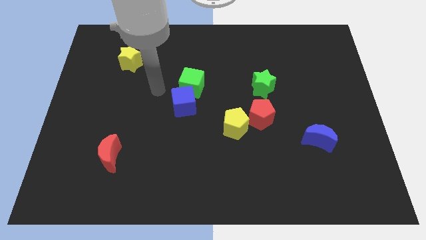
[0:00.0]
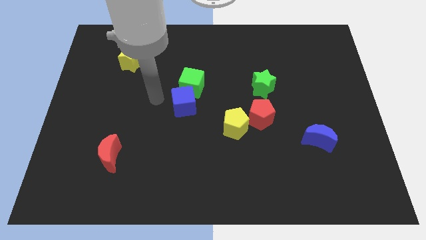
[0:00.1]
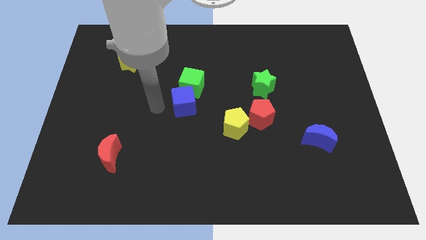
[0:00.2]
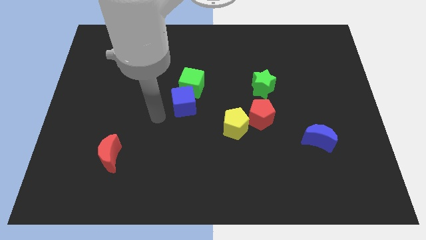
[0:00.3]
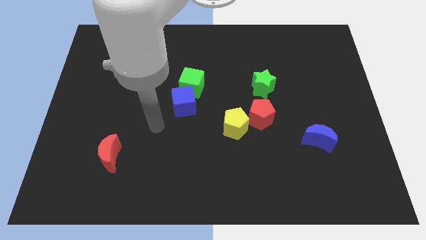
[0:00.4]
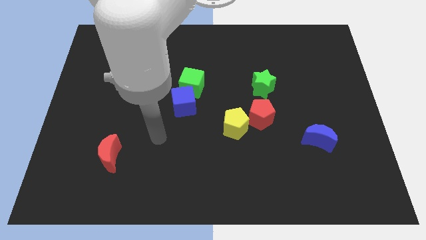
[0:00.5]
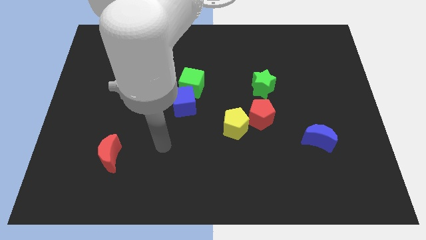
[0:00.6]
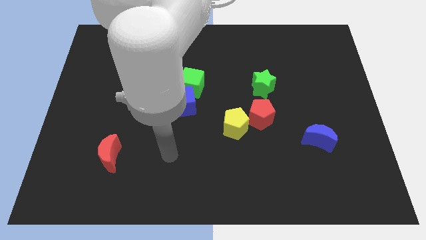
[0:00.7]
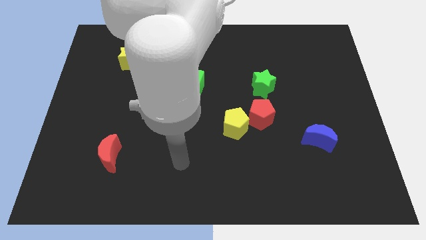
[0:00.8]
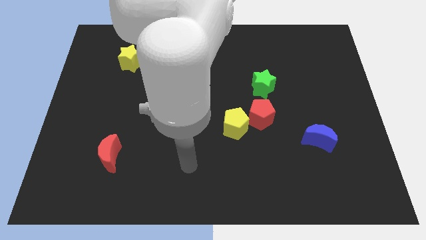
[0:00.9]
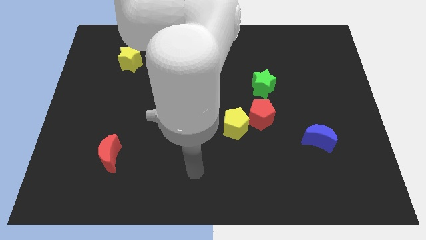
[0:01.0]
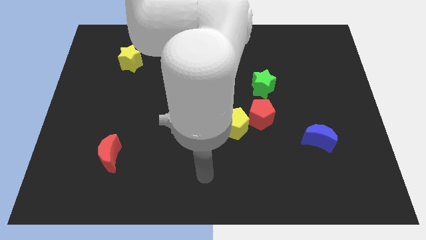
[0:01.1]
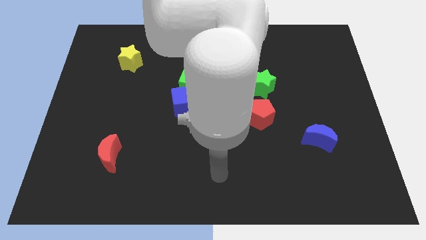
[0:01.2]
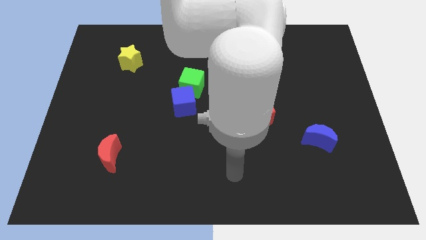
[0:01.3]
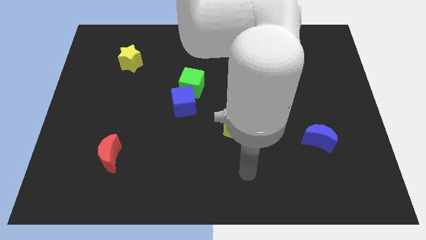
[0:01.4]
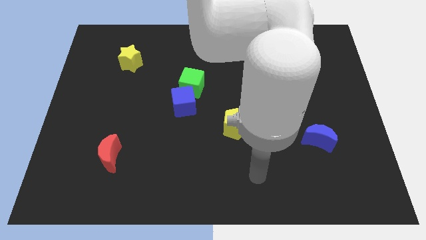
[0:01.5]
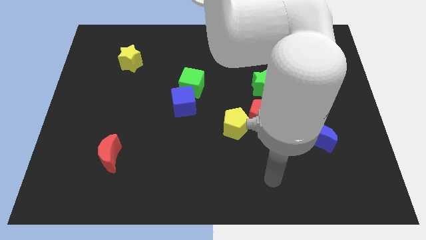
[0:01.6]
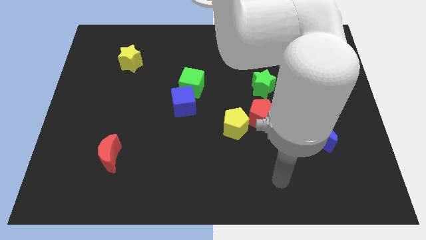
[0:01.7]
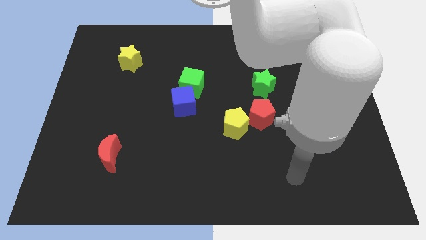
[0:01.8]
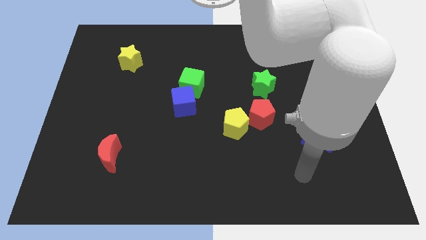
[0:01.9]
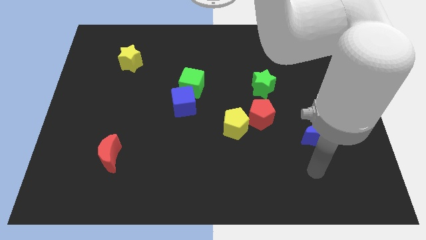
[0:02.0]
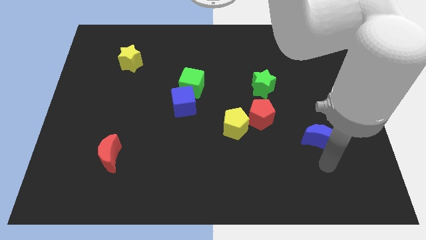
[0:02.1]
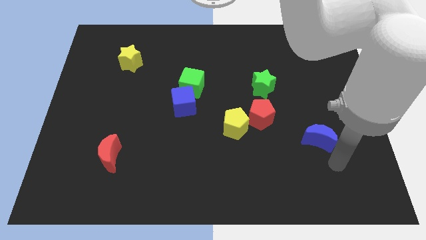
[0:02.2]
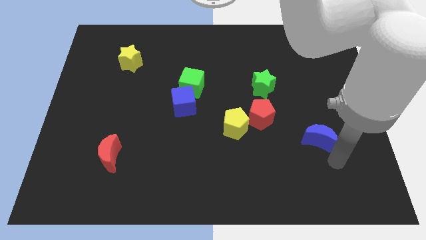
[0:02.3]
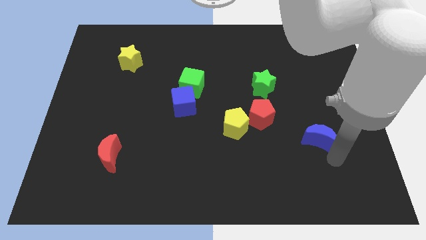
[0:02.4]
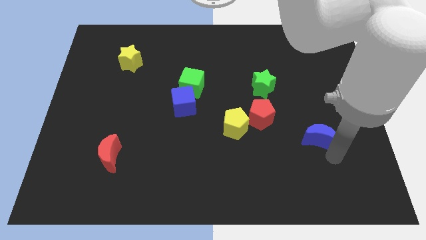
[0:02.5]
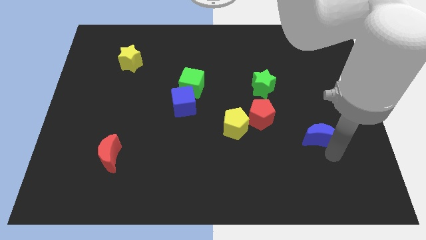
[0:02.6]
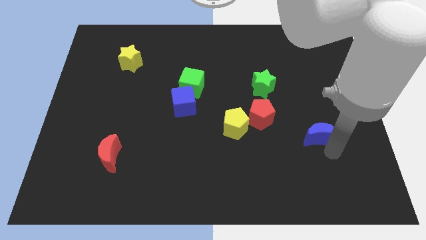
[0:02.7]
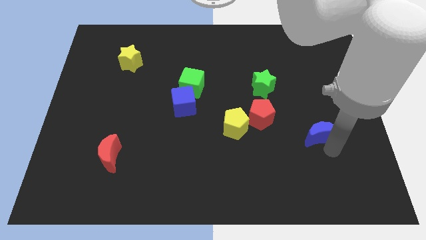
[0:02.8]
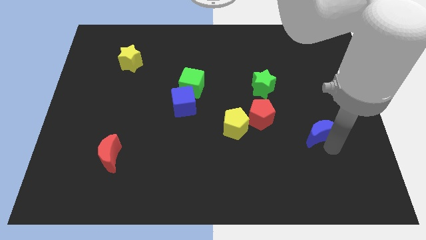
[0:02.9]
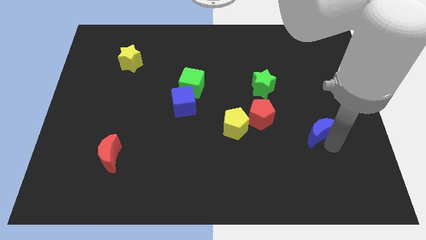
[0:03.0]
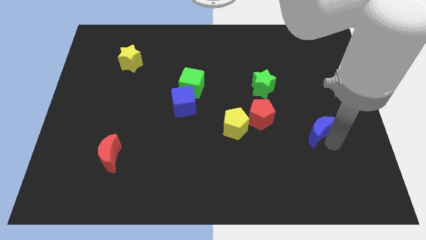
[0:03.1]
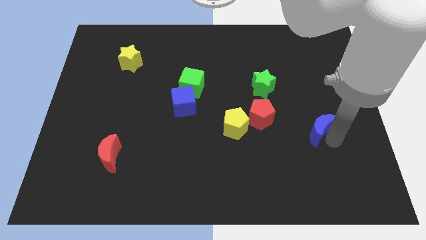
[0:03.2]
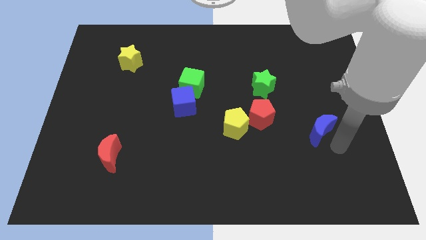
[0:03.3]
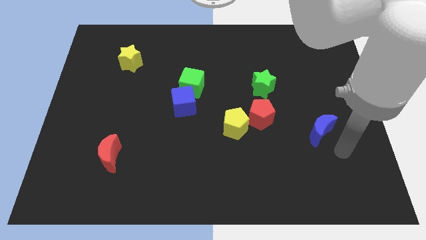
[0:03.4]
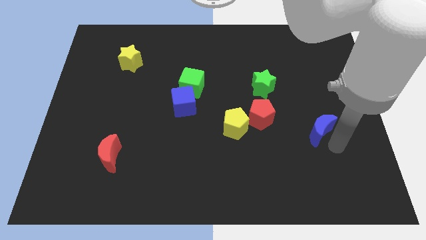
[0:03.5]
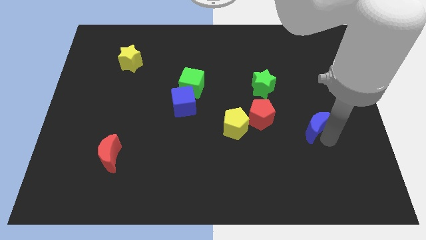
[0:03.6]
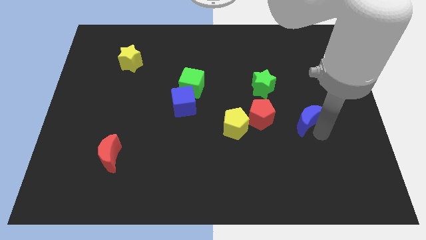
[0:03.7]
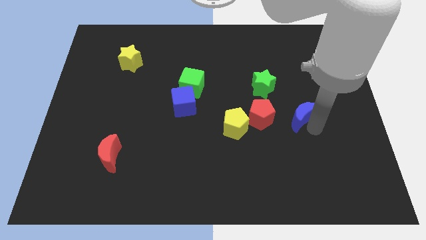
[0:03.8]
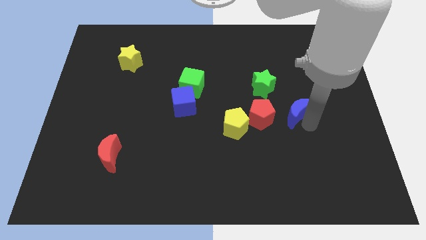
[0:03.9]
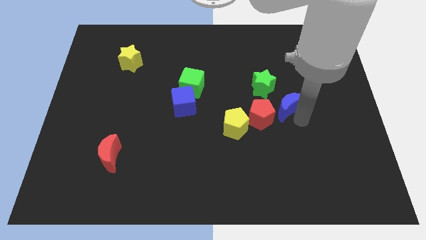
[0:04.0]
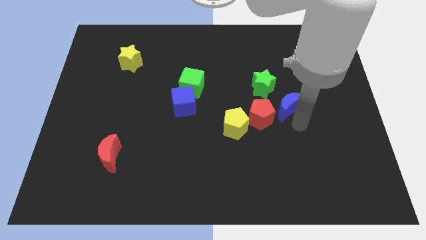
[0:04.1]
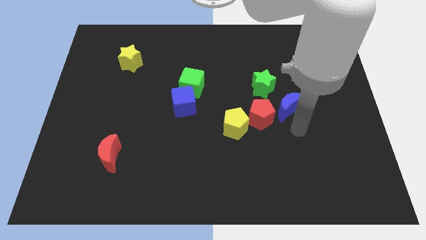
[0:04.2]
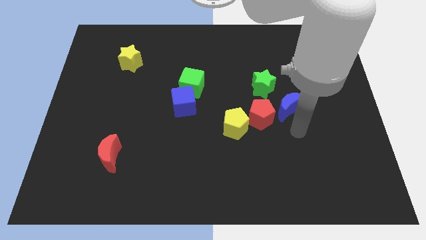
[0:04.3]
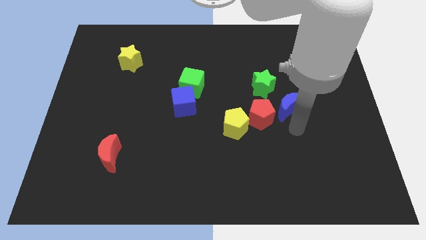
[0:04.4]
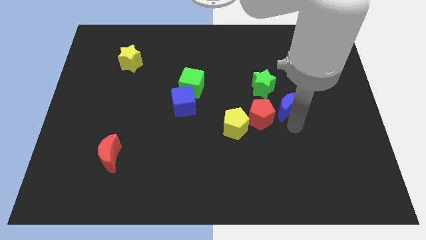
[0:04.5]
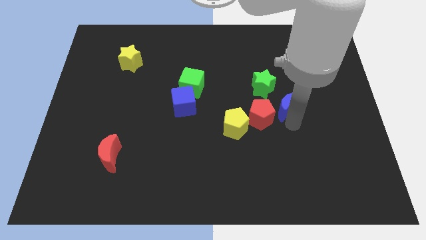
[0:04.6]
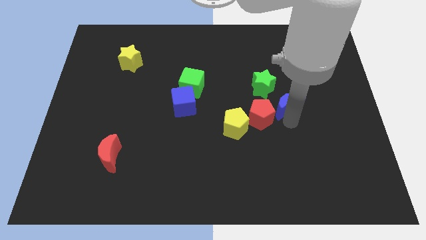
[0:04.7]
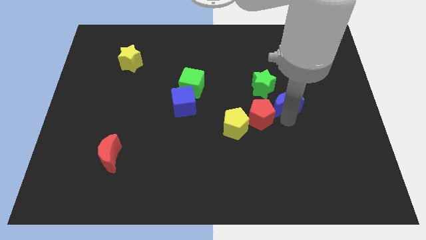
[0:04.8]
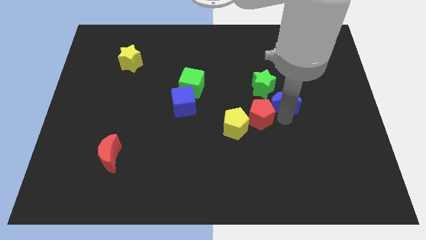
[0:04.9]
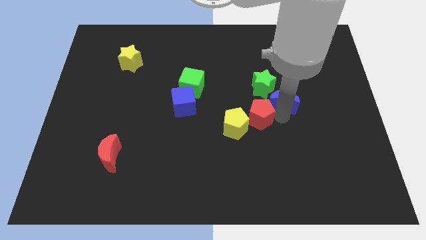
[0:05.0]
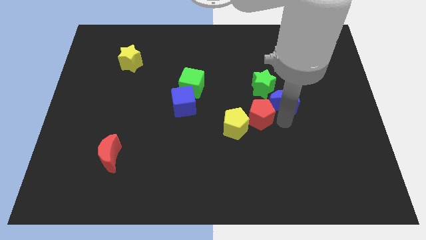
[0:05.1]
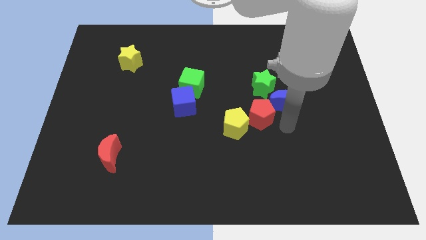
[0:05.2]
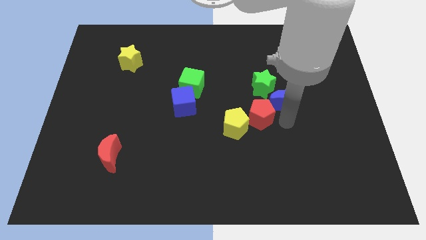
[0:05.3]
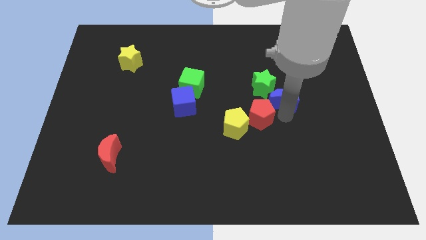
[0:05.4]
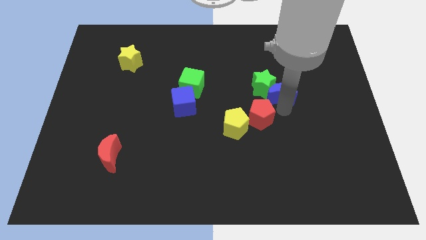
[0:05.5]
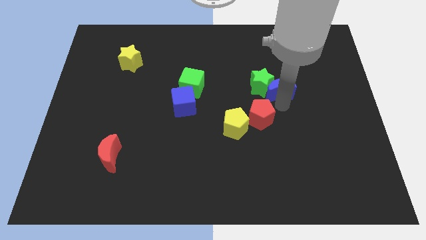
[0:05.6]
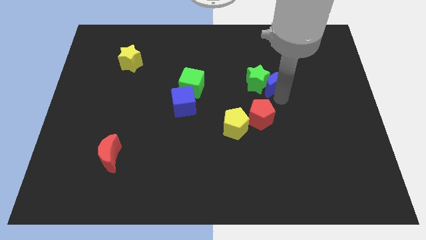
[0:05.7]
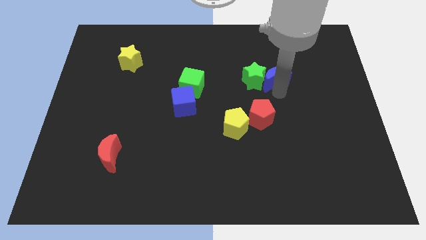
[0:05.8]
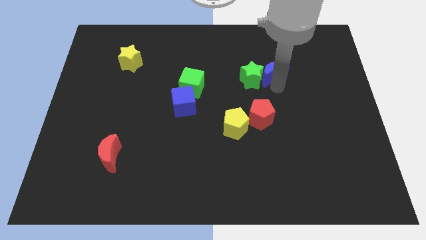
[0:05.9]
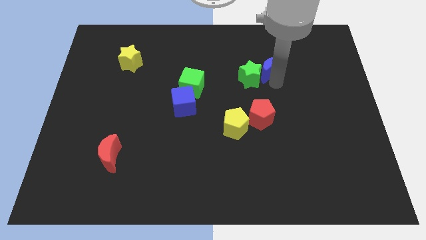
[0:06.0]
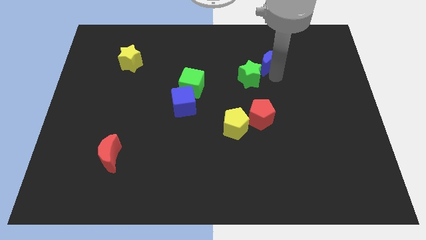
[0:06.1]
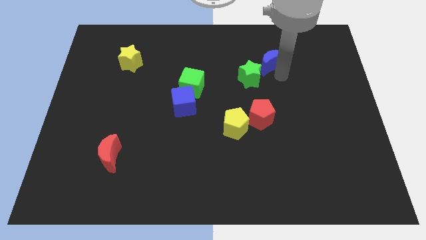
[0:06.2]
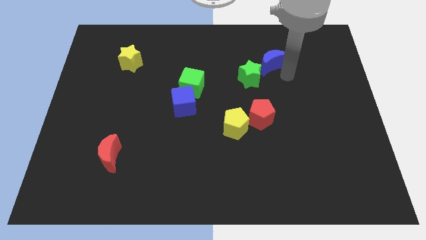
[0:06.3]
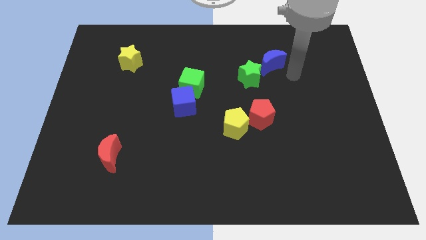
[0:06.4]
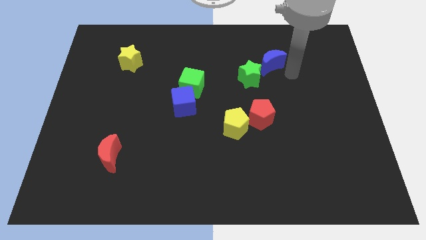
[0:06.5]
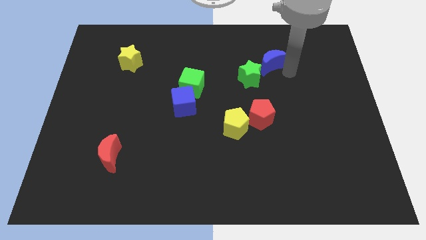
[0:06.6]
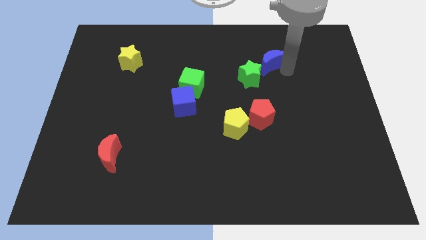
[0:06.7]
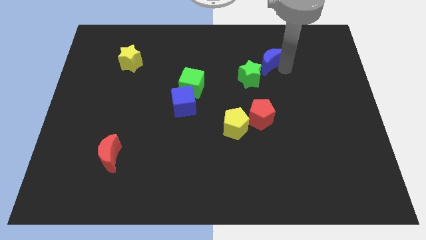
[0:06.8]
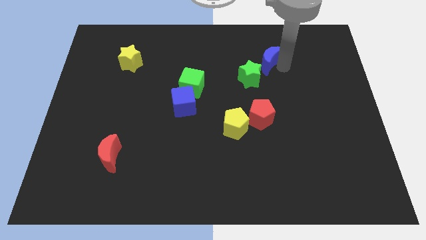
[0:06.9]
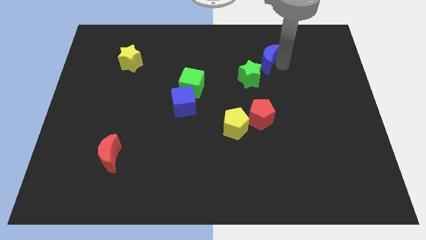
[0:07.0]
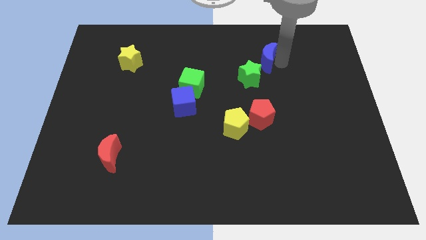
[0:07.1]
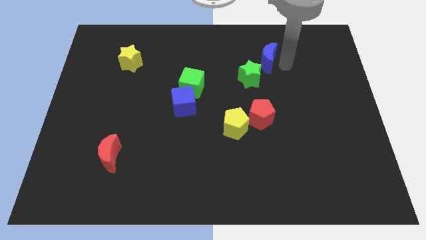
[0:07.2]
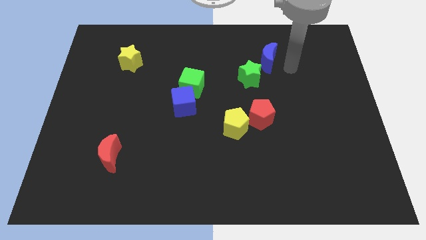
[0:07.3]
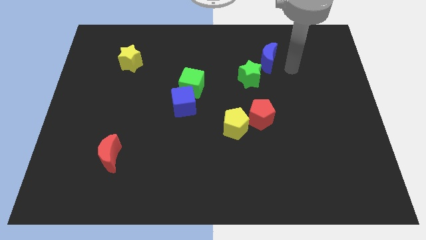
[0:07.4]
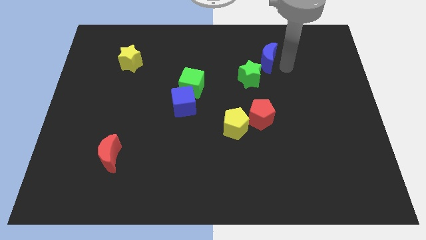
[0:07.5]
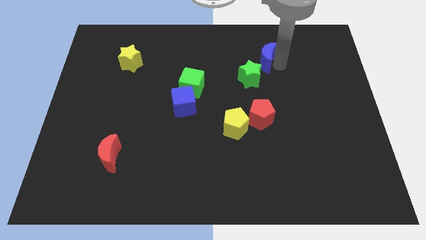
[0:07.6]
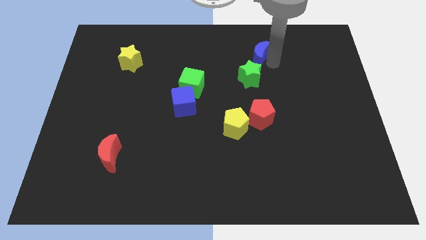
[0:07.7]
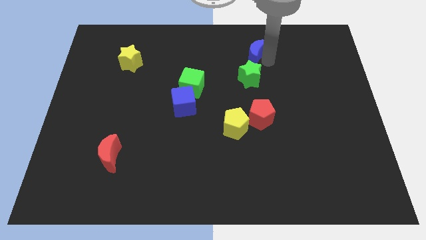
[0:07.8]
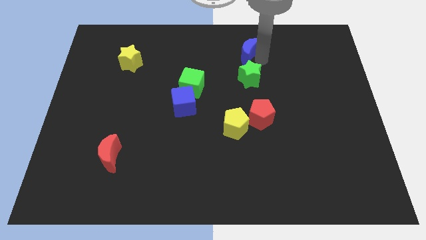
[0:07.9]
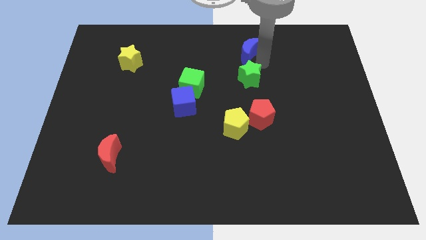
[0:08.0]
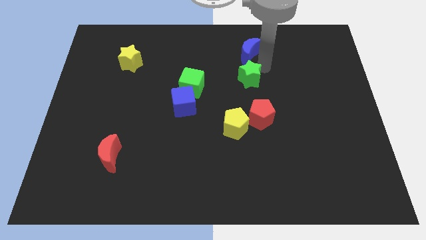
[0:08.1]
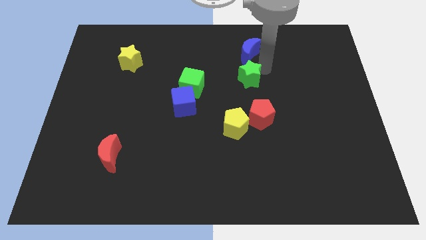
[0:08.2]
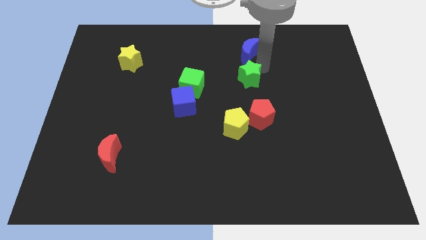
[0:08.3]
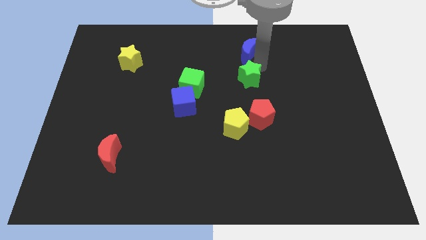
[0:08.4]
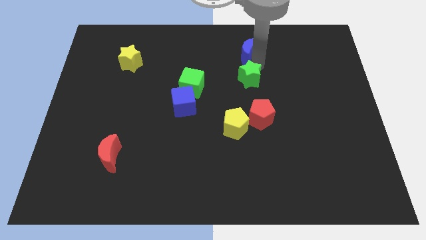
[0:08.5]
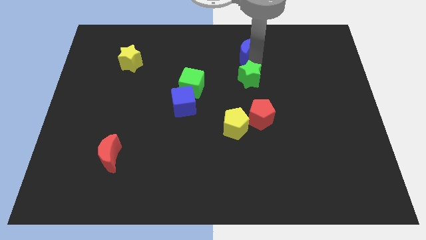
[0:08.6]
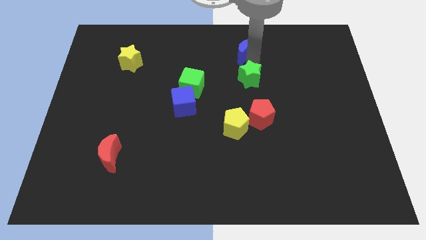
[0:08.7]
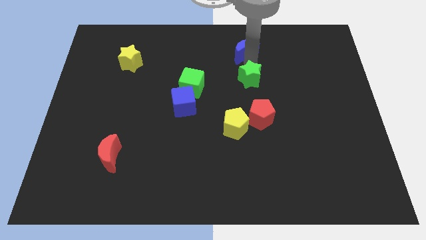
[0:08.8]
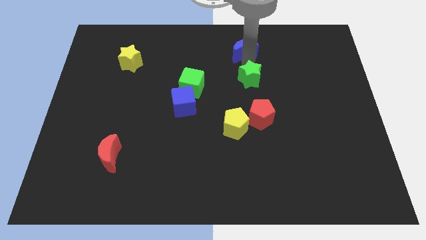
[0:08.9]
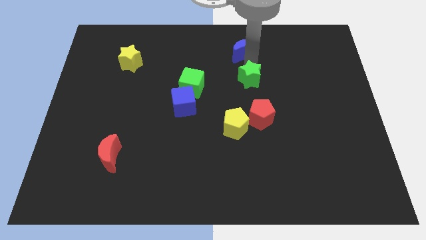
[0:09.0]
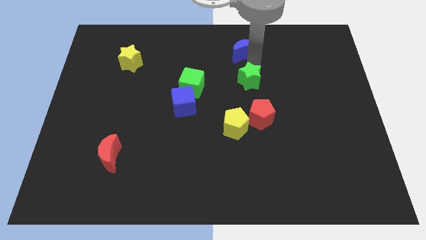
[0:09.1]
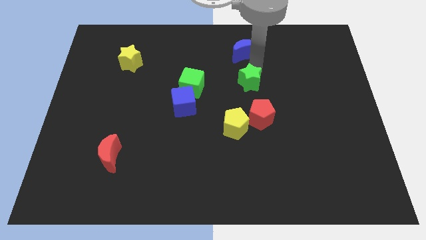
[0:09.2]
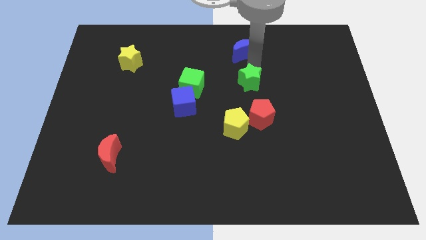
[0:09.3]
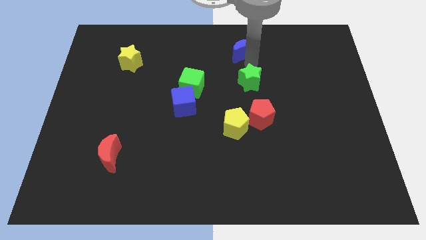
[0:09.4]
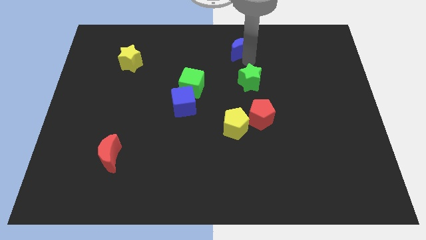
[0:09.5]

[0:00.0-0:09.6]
put the blue moon to the top
